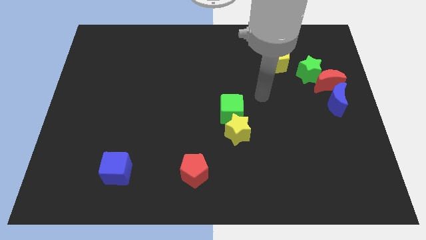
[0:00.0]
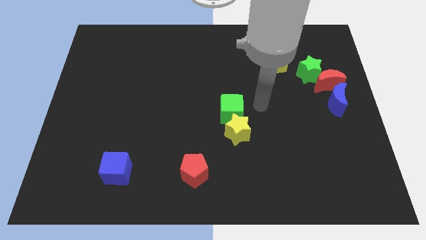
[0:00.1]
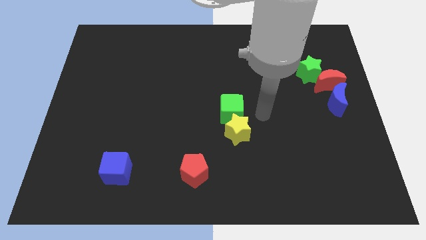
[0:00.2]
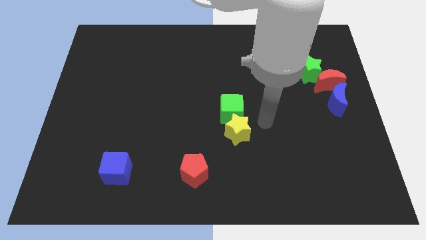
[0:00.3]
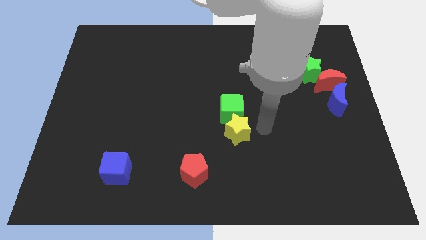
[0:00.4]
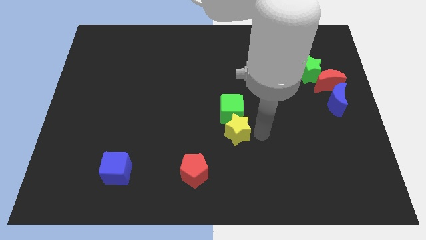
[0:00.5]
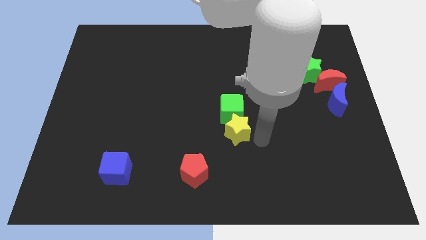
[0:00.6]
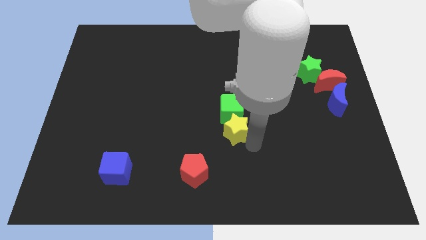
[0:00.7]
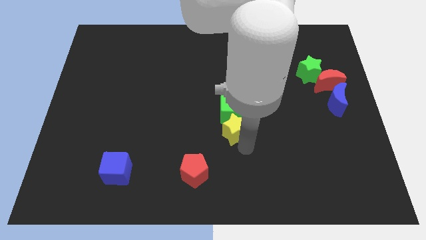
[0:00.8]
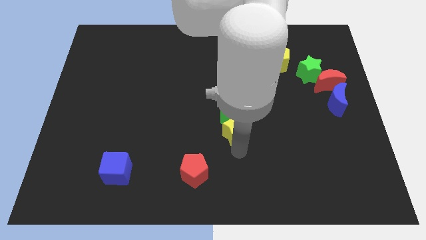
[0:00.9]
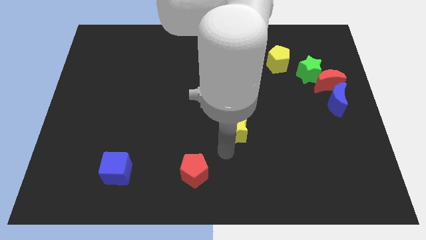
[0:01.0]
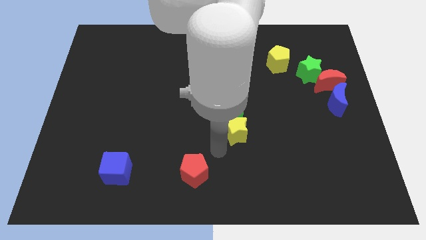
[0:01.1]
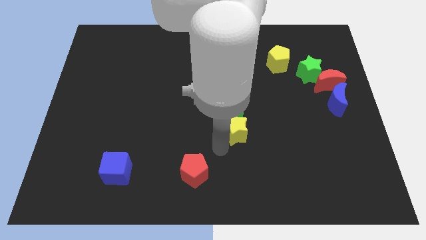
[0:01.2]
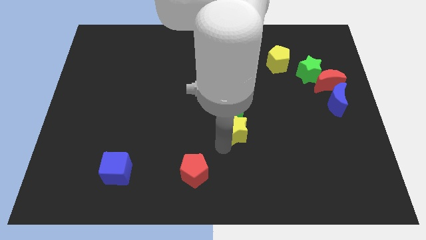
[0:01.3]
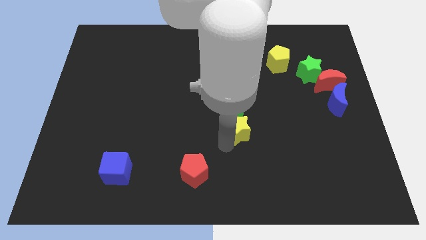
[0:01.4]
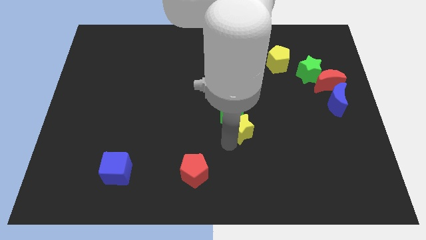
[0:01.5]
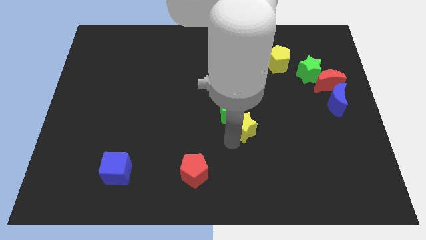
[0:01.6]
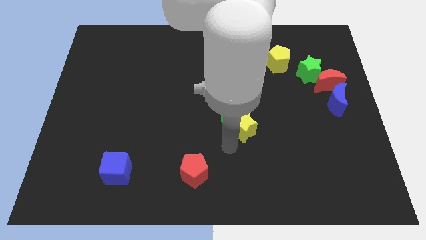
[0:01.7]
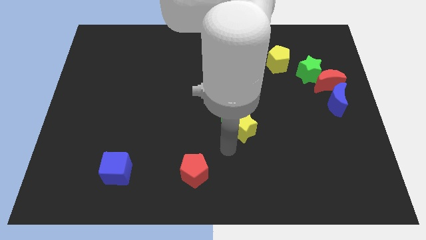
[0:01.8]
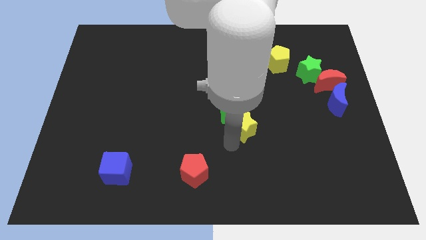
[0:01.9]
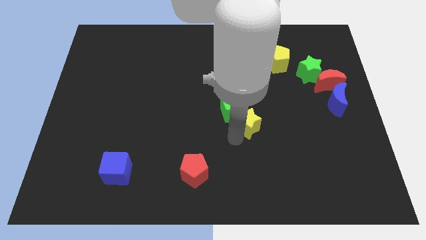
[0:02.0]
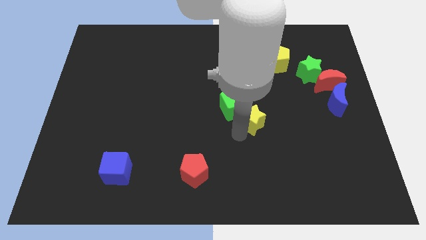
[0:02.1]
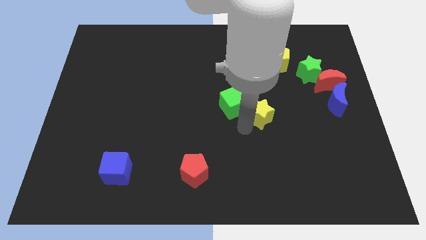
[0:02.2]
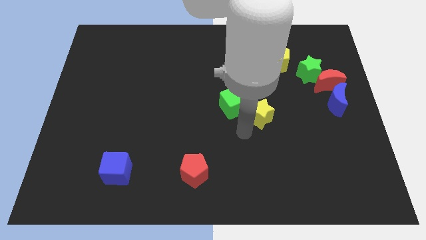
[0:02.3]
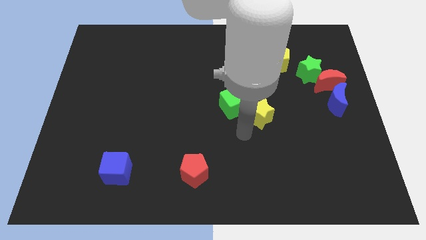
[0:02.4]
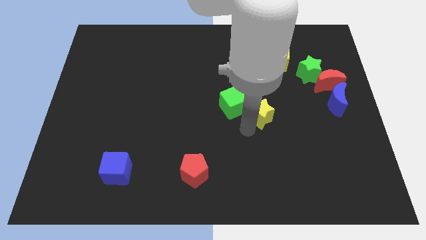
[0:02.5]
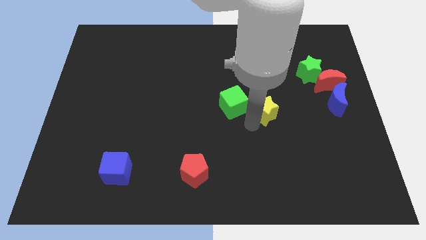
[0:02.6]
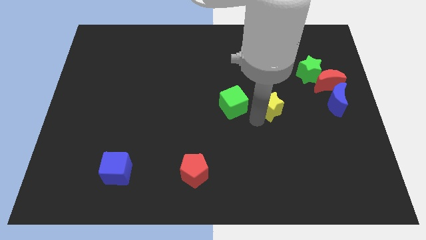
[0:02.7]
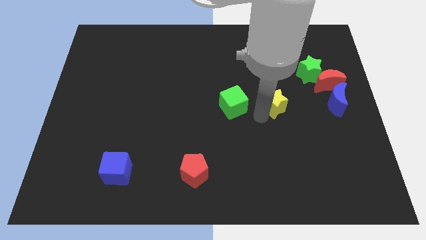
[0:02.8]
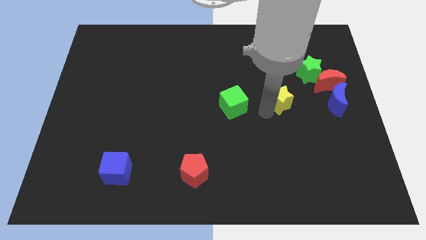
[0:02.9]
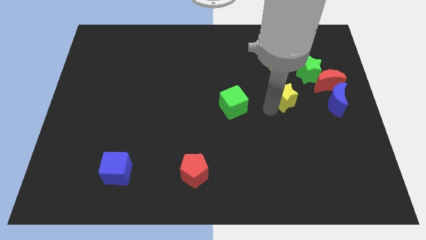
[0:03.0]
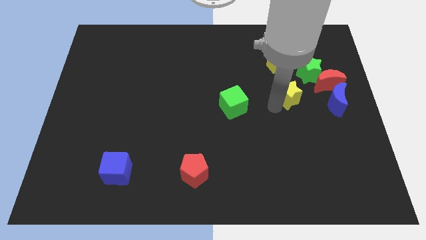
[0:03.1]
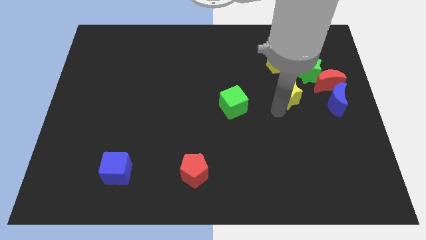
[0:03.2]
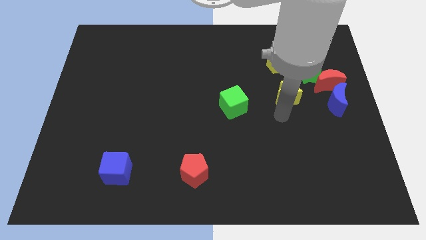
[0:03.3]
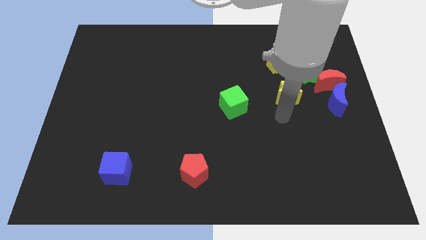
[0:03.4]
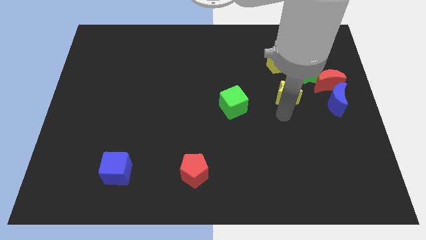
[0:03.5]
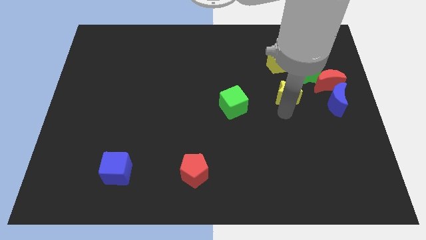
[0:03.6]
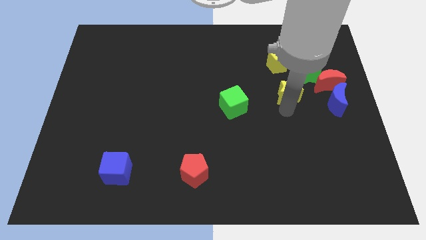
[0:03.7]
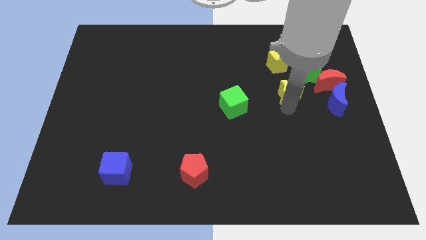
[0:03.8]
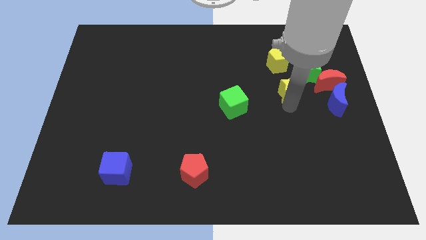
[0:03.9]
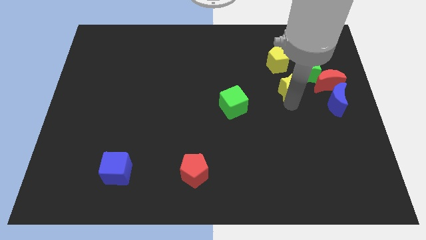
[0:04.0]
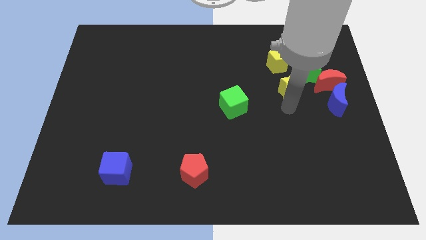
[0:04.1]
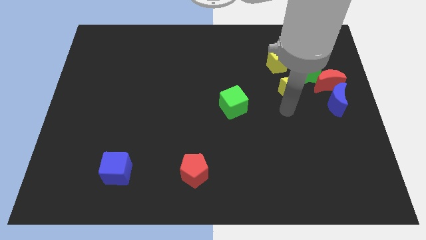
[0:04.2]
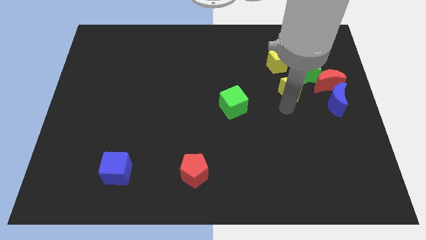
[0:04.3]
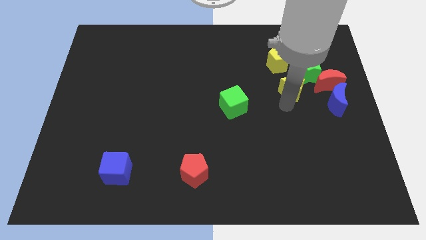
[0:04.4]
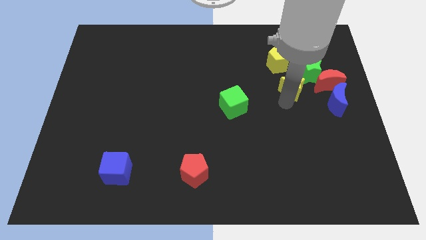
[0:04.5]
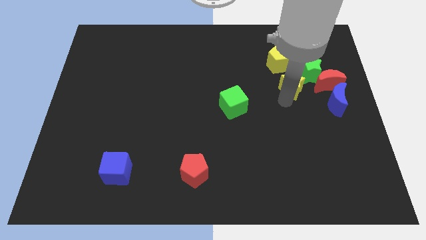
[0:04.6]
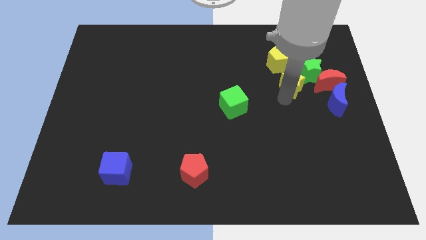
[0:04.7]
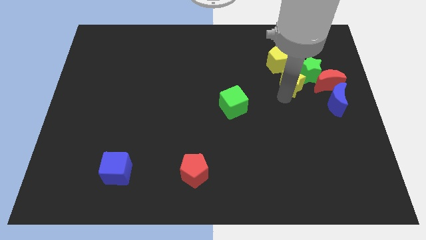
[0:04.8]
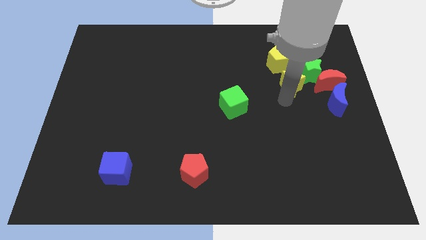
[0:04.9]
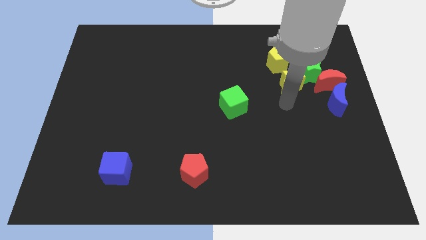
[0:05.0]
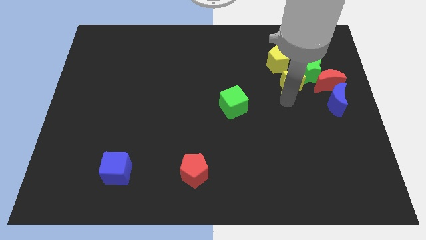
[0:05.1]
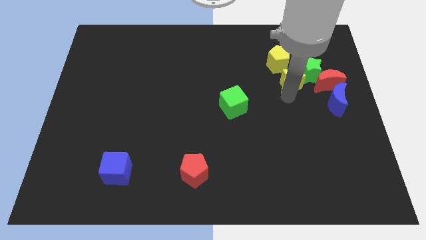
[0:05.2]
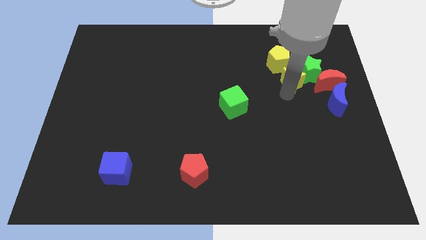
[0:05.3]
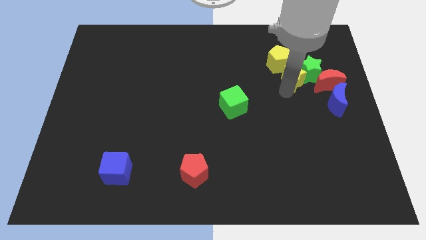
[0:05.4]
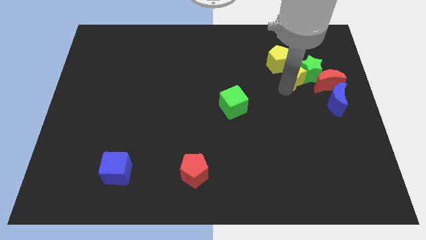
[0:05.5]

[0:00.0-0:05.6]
slide the yellow star to the top left of the red moon

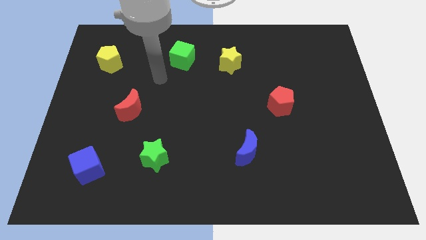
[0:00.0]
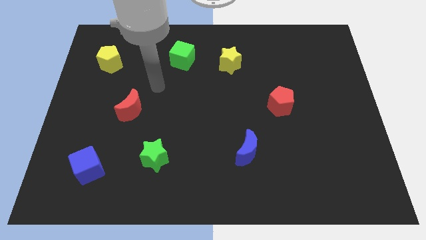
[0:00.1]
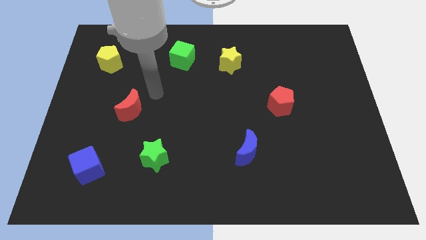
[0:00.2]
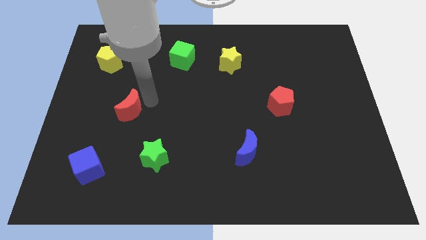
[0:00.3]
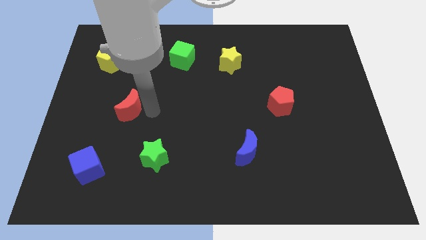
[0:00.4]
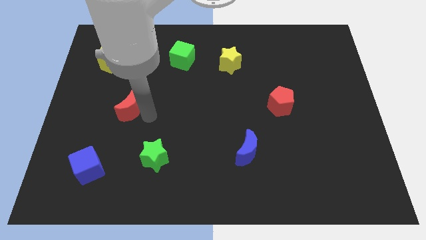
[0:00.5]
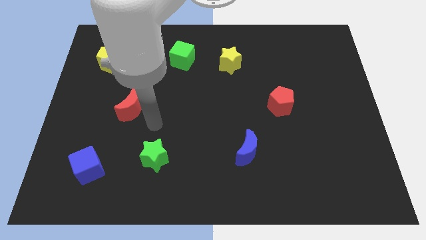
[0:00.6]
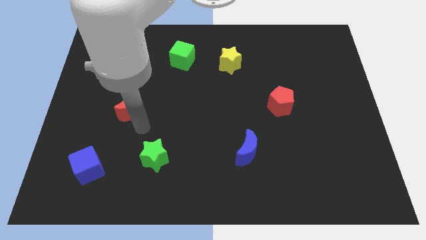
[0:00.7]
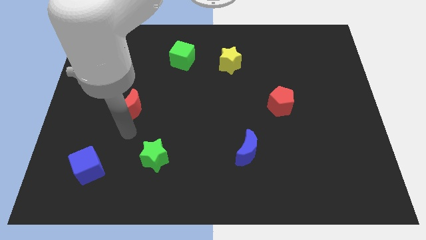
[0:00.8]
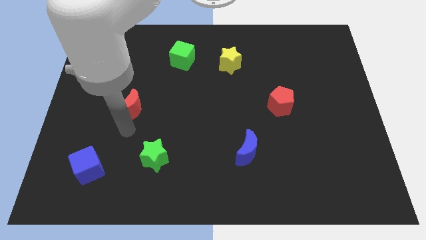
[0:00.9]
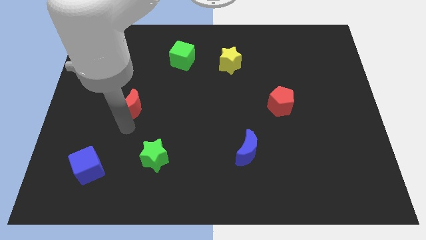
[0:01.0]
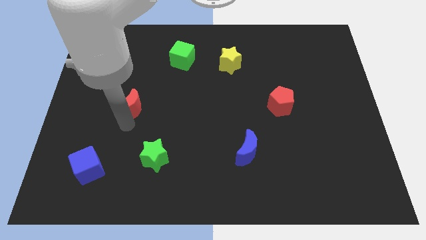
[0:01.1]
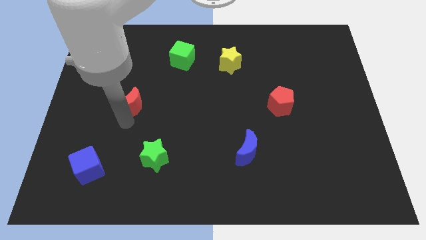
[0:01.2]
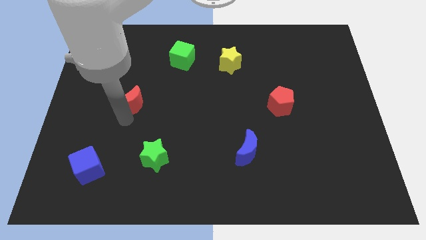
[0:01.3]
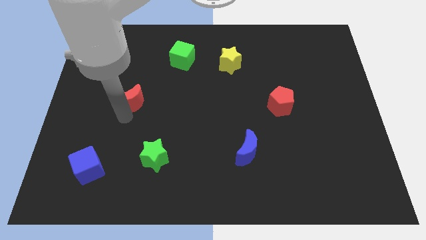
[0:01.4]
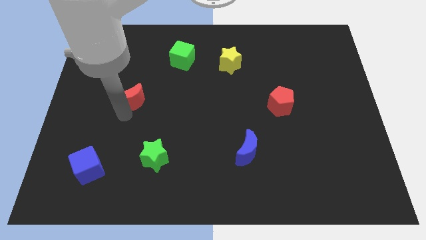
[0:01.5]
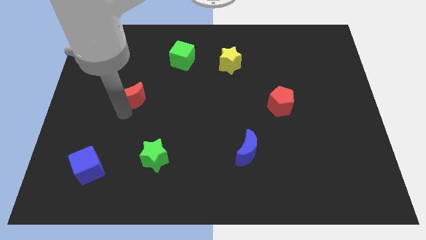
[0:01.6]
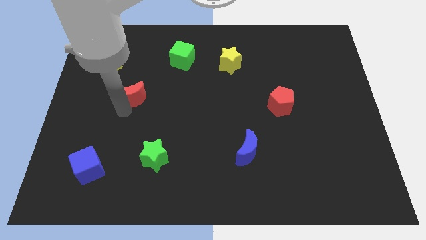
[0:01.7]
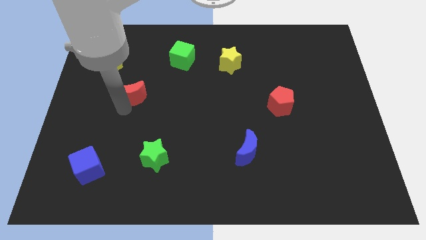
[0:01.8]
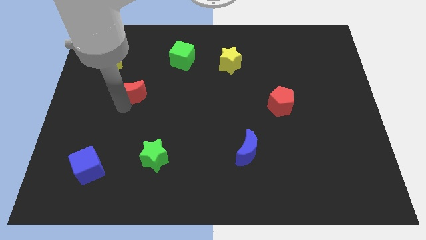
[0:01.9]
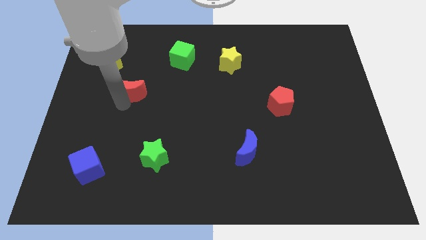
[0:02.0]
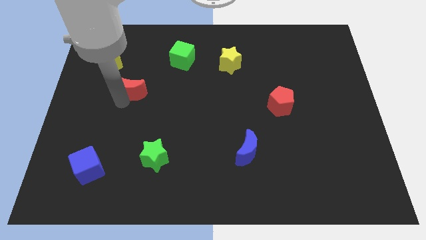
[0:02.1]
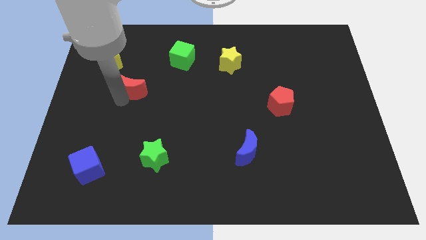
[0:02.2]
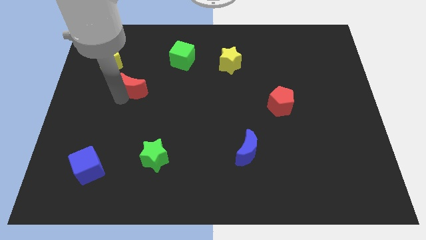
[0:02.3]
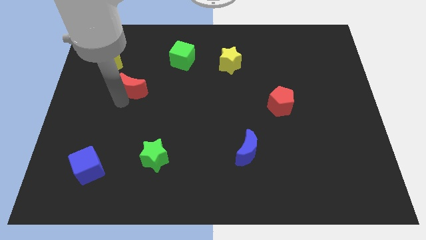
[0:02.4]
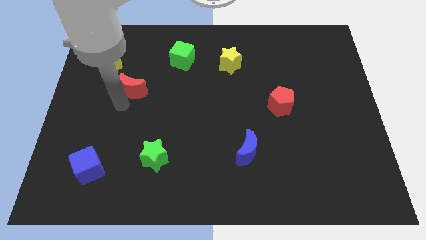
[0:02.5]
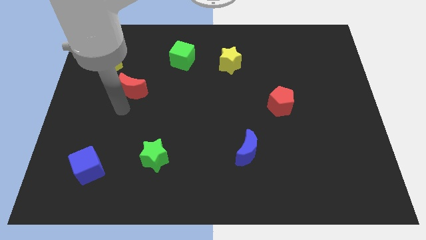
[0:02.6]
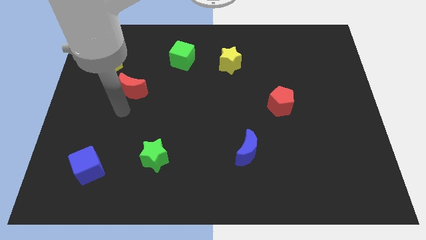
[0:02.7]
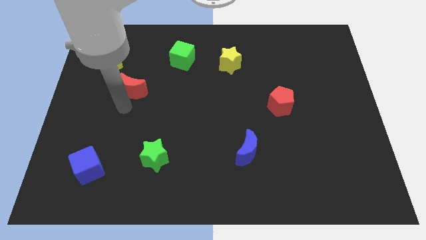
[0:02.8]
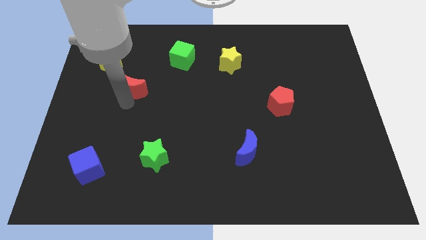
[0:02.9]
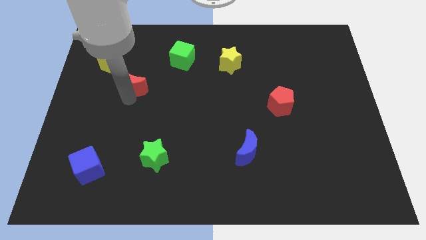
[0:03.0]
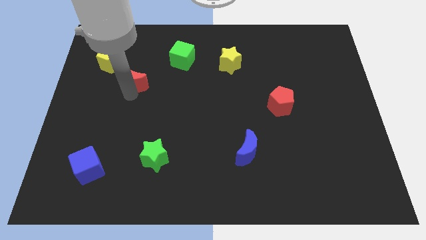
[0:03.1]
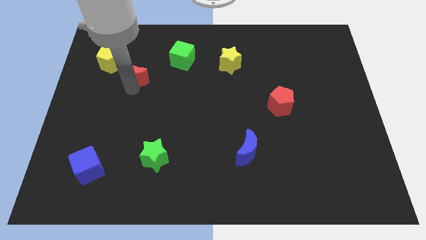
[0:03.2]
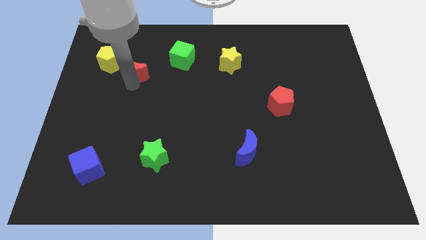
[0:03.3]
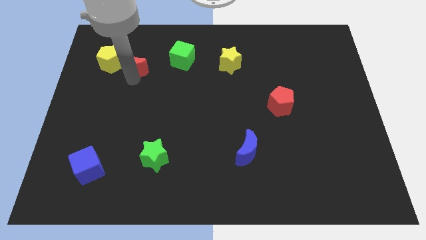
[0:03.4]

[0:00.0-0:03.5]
put the red moon to the left of the green cube
